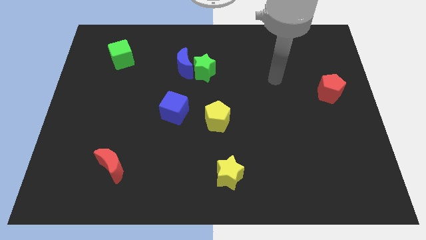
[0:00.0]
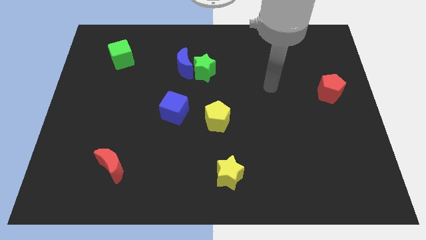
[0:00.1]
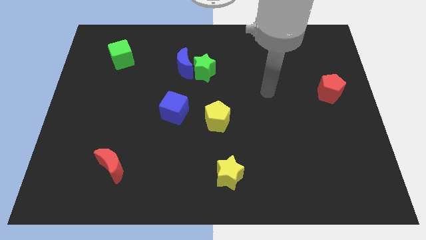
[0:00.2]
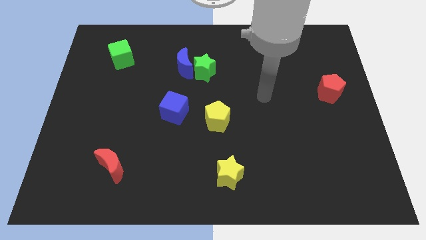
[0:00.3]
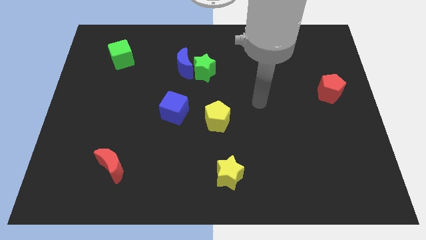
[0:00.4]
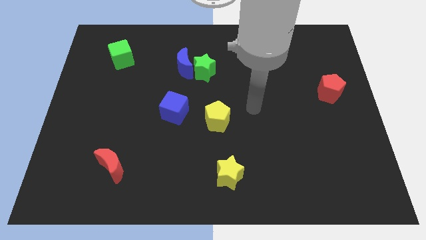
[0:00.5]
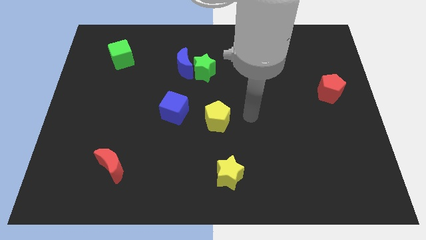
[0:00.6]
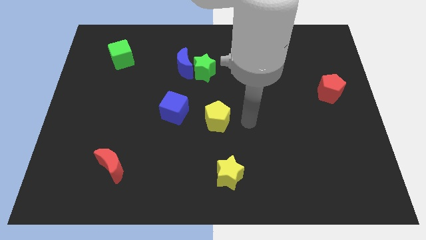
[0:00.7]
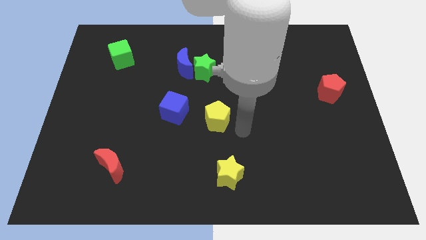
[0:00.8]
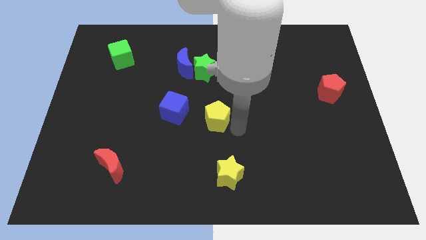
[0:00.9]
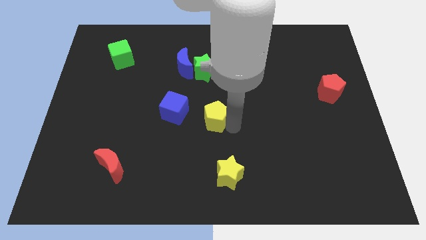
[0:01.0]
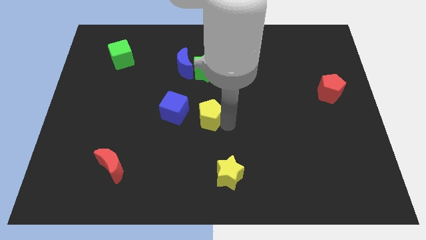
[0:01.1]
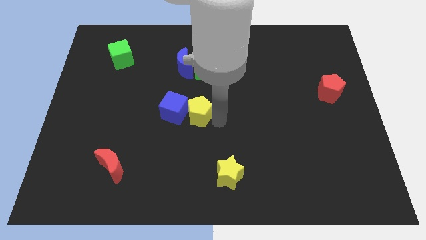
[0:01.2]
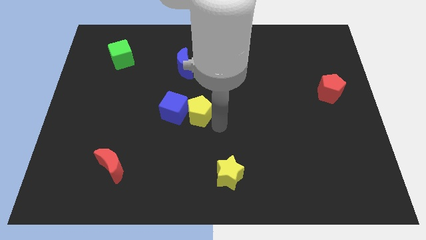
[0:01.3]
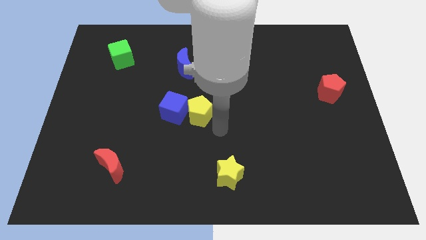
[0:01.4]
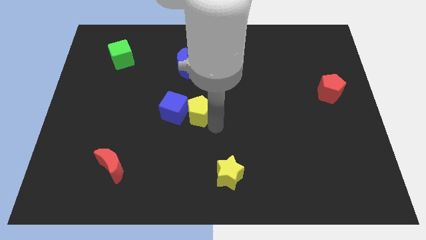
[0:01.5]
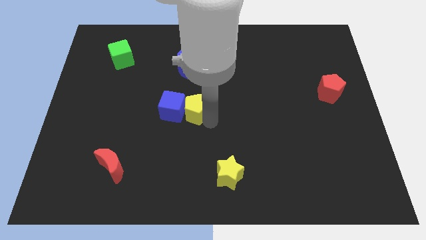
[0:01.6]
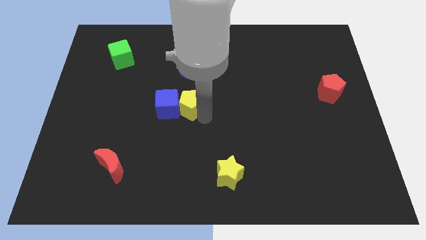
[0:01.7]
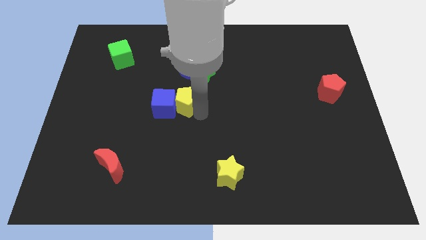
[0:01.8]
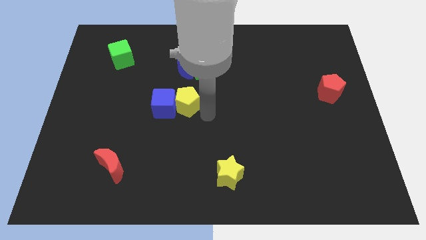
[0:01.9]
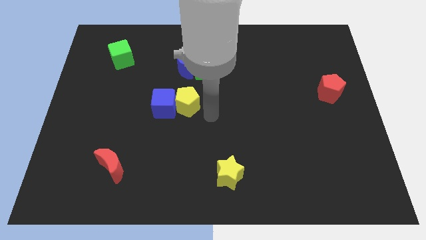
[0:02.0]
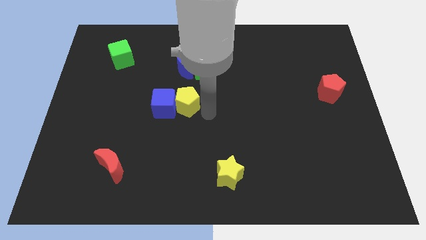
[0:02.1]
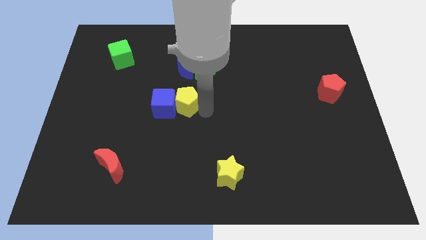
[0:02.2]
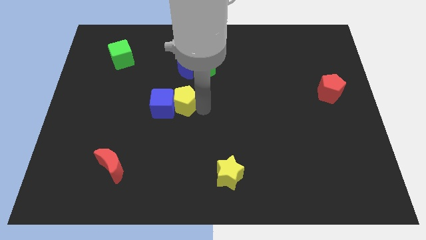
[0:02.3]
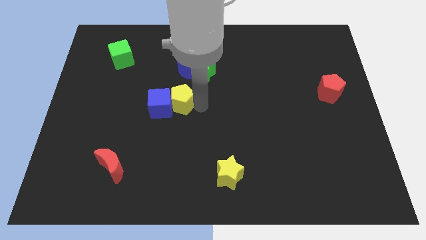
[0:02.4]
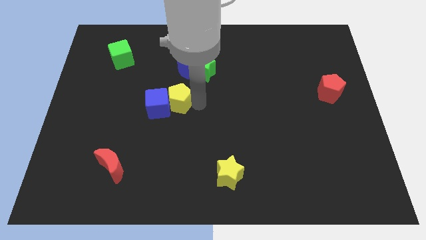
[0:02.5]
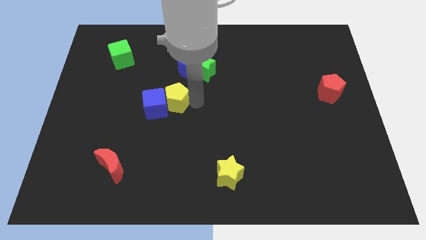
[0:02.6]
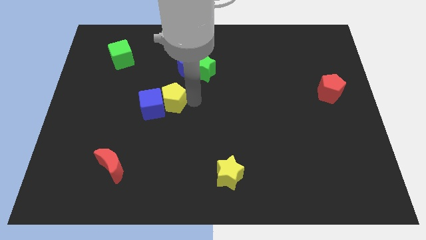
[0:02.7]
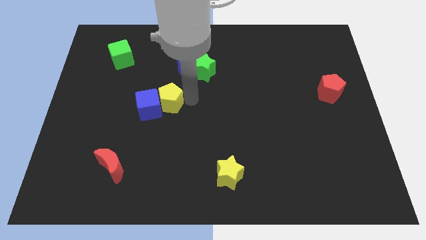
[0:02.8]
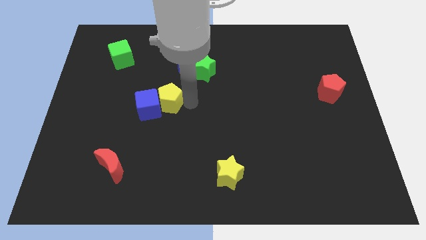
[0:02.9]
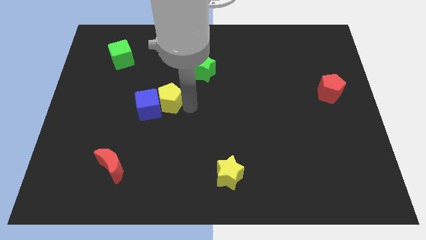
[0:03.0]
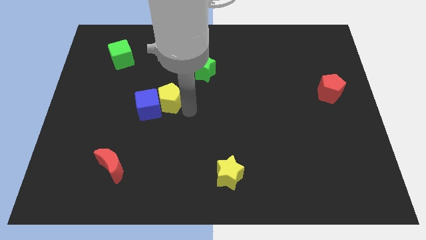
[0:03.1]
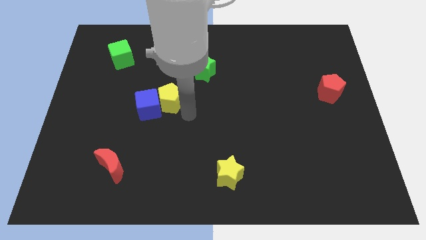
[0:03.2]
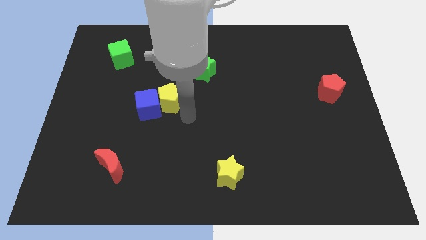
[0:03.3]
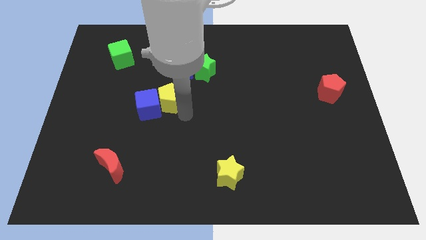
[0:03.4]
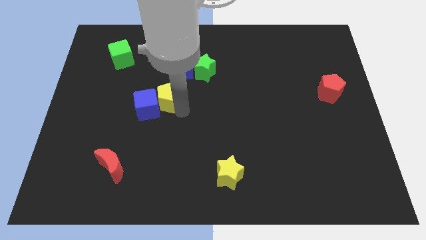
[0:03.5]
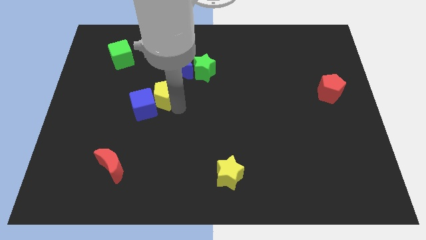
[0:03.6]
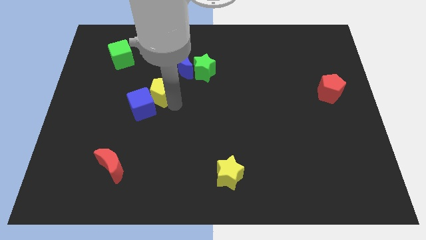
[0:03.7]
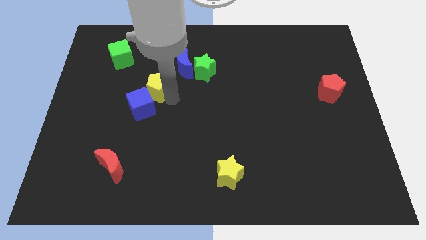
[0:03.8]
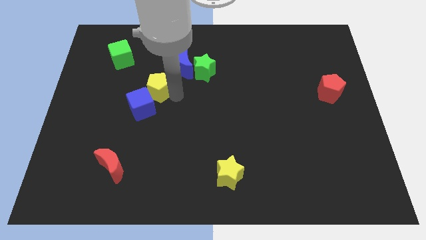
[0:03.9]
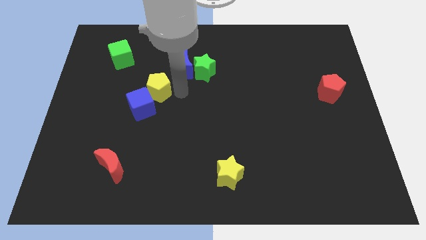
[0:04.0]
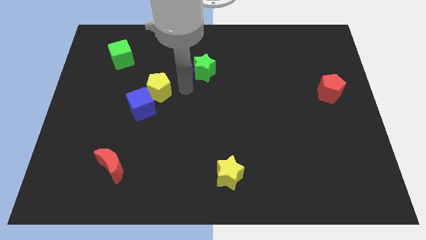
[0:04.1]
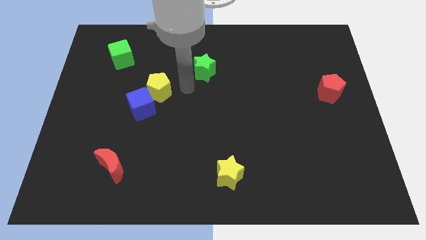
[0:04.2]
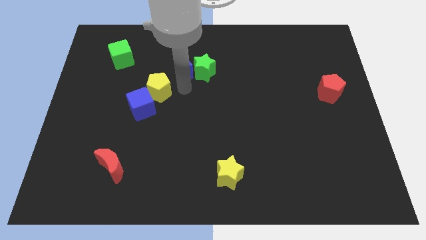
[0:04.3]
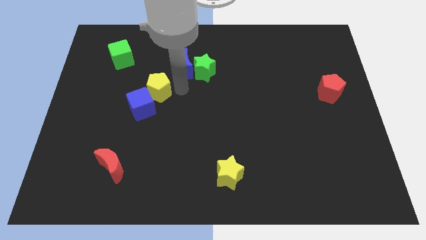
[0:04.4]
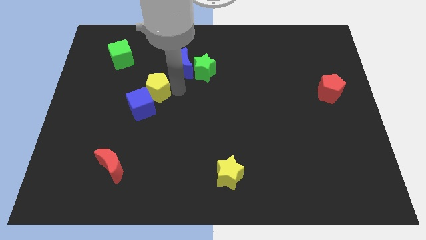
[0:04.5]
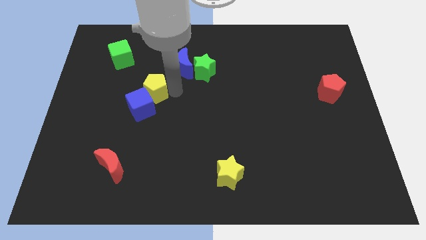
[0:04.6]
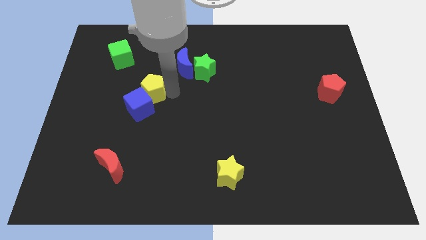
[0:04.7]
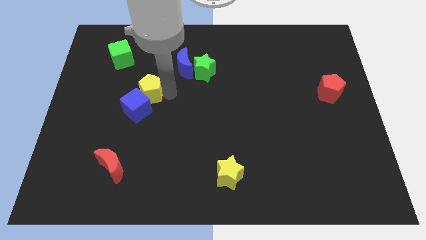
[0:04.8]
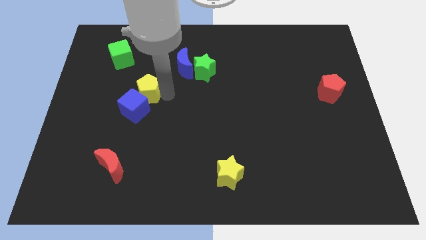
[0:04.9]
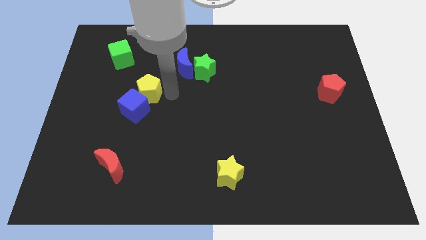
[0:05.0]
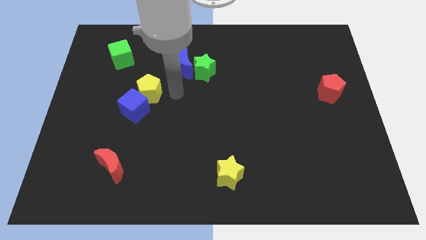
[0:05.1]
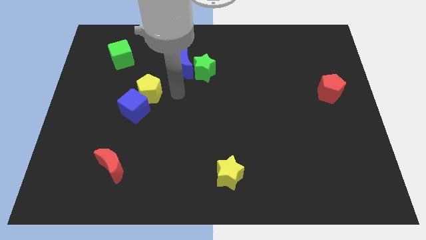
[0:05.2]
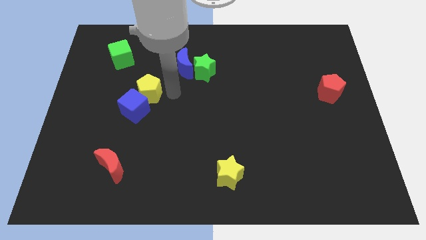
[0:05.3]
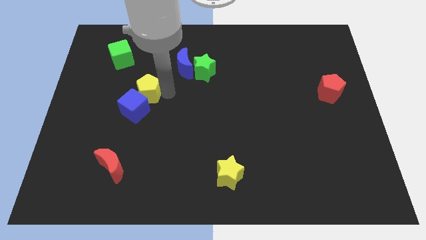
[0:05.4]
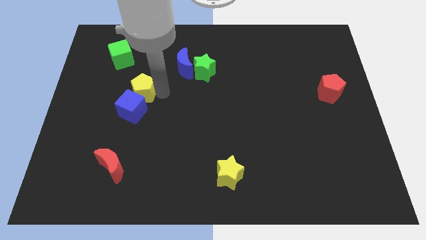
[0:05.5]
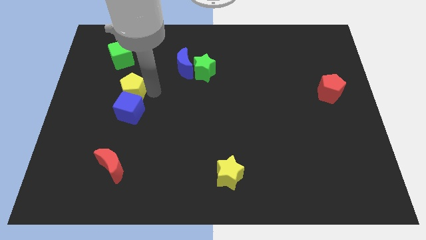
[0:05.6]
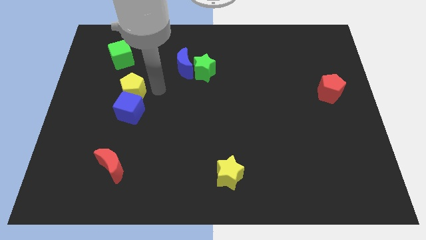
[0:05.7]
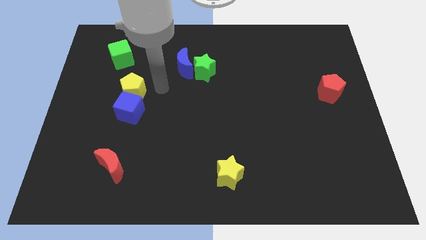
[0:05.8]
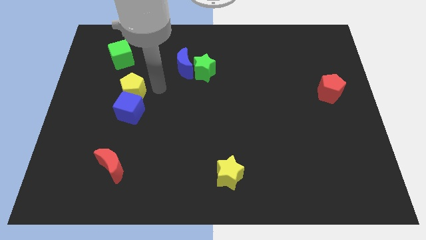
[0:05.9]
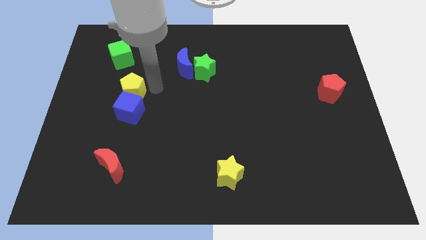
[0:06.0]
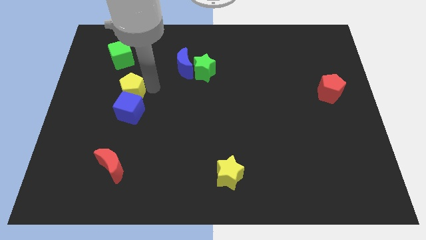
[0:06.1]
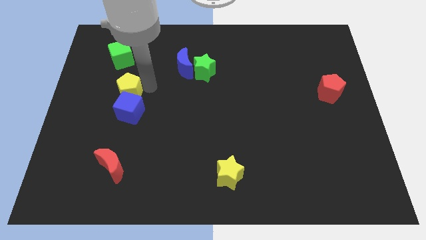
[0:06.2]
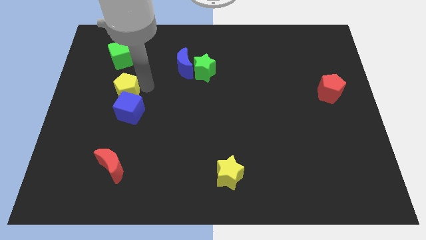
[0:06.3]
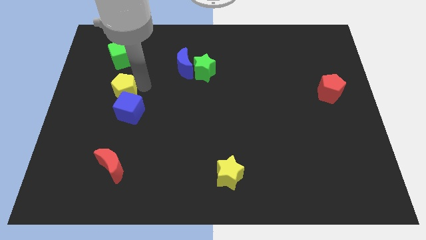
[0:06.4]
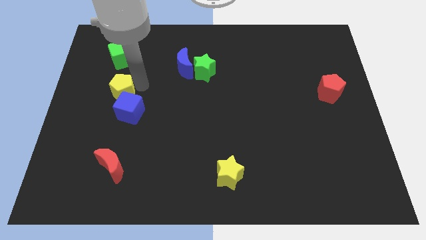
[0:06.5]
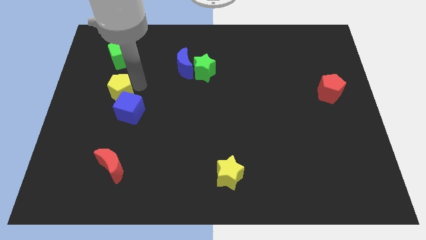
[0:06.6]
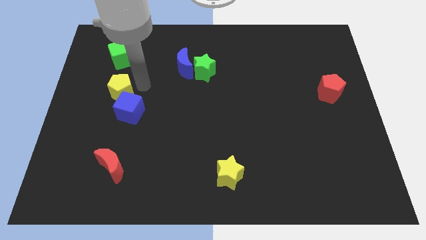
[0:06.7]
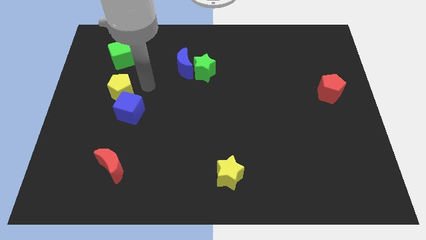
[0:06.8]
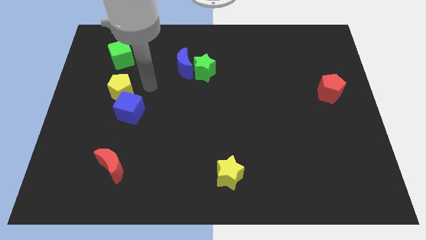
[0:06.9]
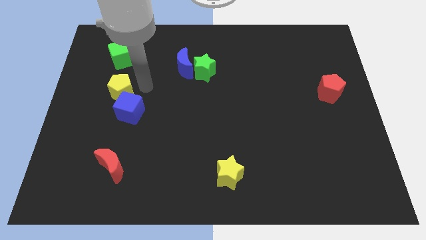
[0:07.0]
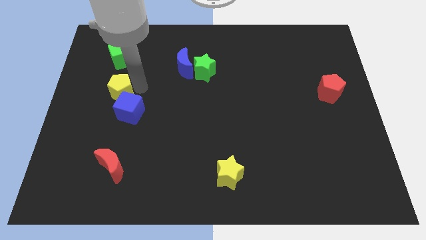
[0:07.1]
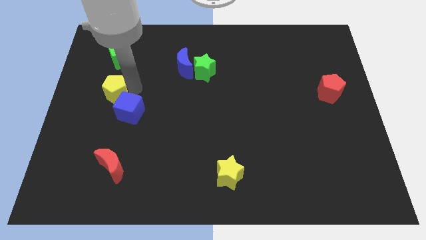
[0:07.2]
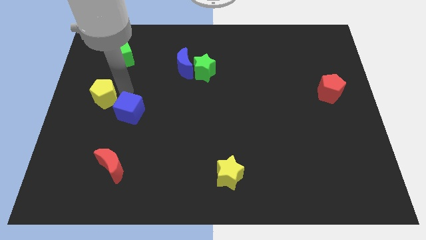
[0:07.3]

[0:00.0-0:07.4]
put the yellow pentagon to the left side
